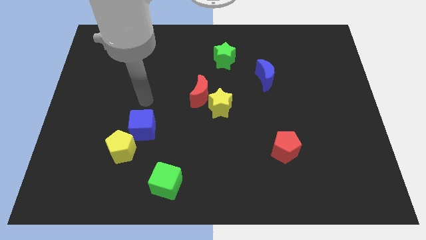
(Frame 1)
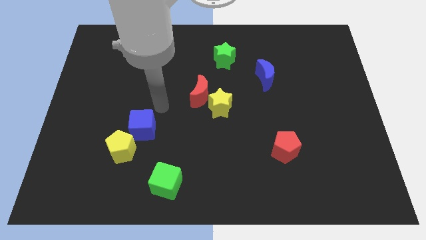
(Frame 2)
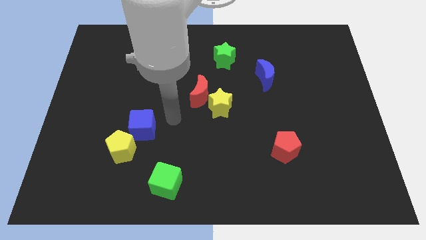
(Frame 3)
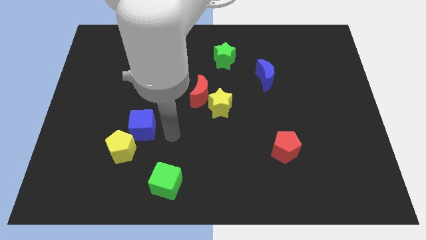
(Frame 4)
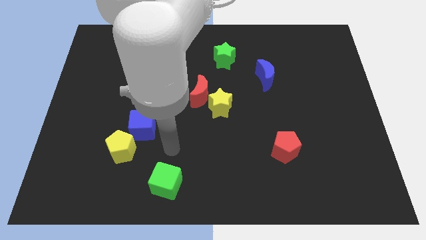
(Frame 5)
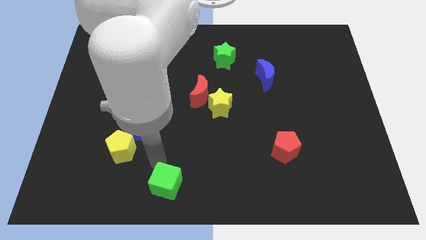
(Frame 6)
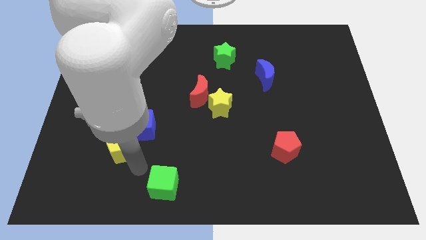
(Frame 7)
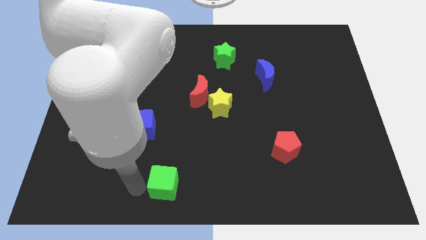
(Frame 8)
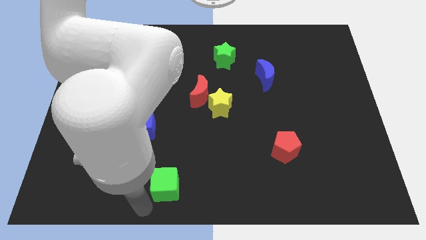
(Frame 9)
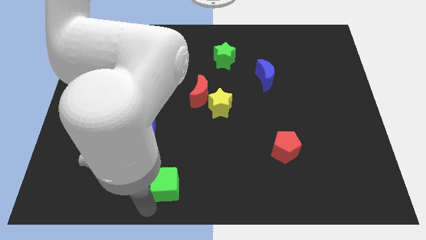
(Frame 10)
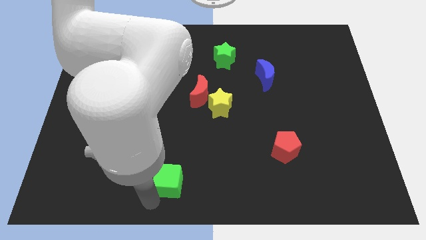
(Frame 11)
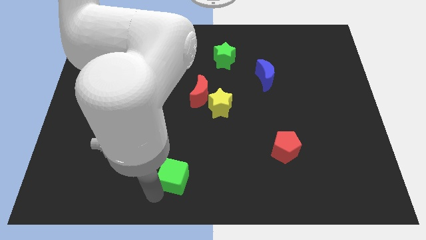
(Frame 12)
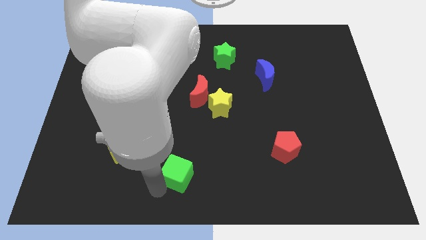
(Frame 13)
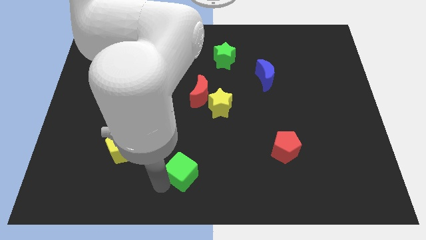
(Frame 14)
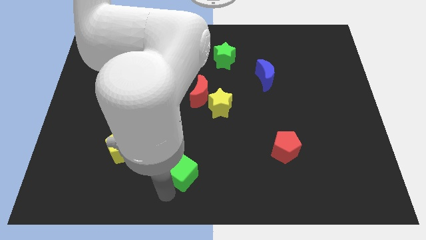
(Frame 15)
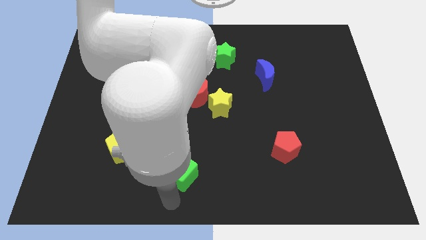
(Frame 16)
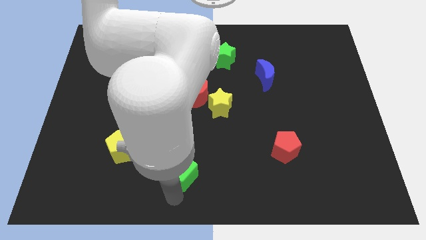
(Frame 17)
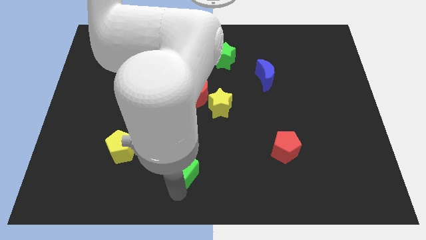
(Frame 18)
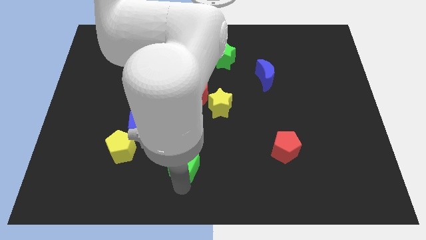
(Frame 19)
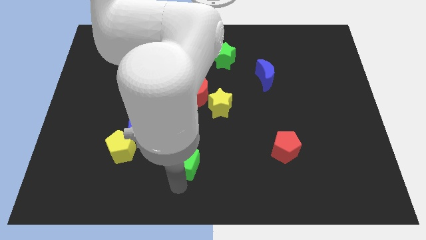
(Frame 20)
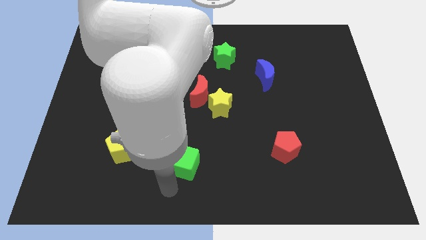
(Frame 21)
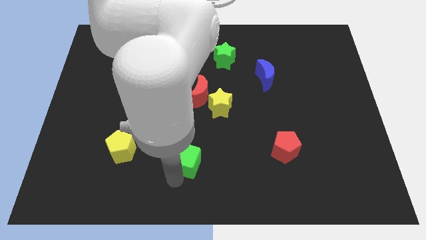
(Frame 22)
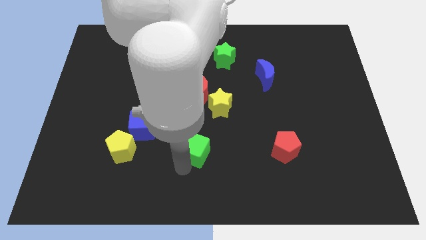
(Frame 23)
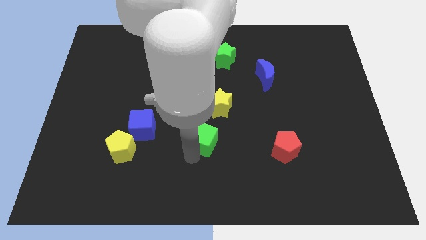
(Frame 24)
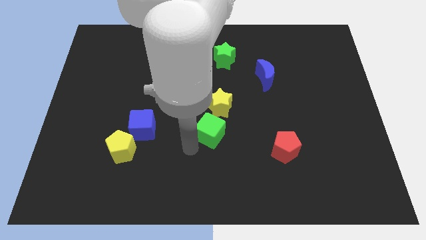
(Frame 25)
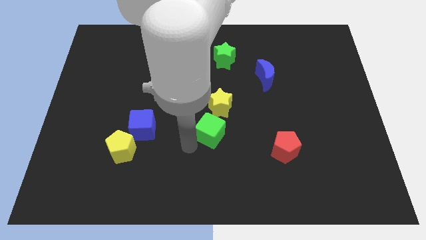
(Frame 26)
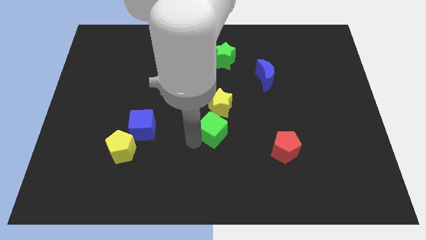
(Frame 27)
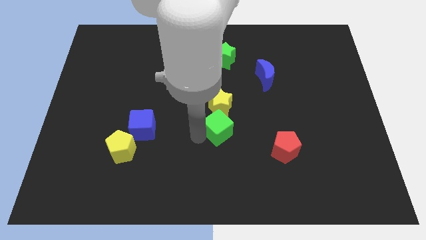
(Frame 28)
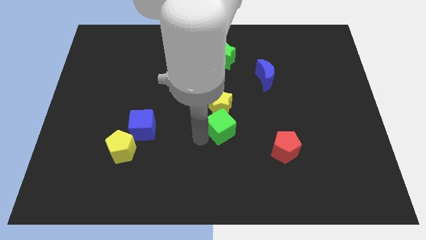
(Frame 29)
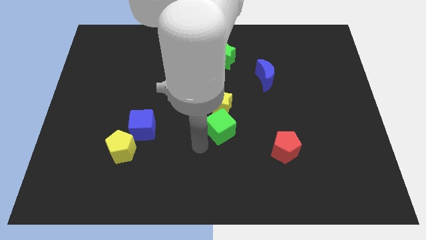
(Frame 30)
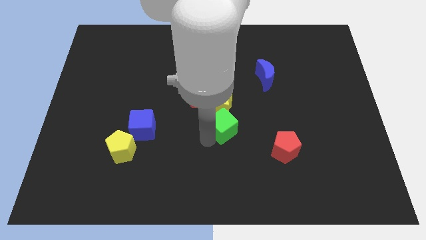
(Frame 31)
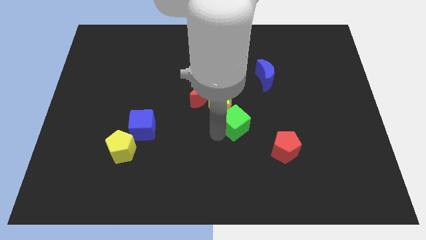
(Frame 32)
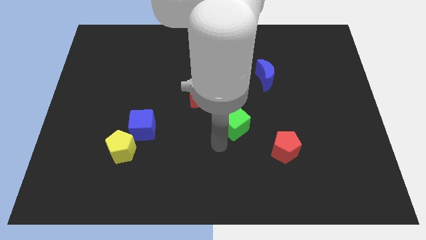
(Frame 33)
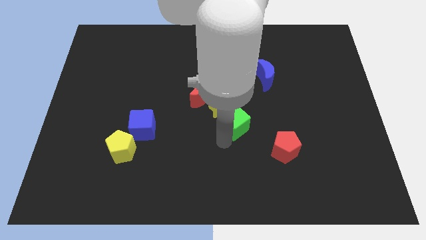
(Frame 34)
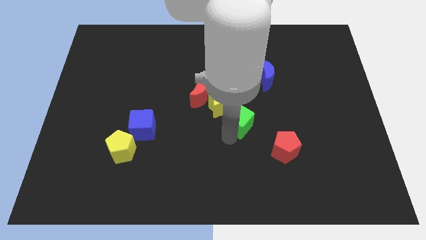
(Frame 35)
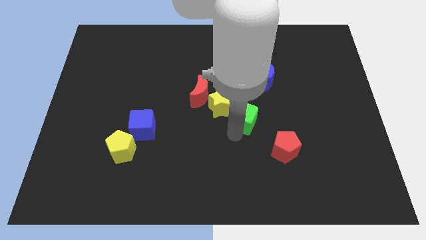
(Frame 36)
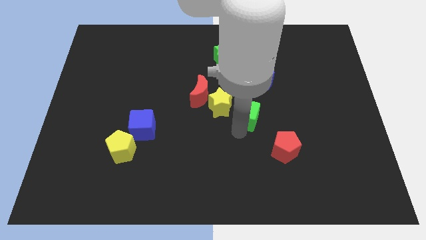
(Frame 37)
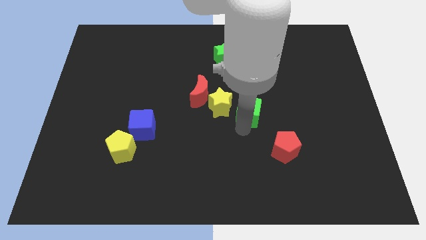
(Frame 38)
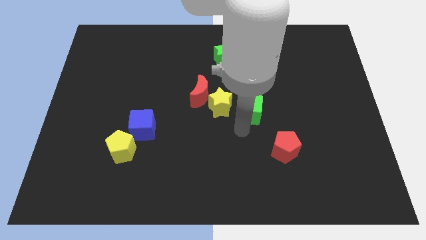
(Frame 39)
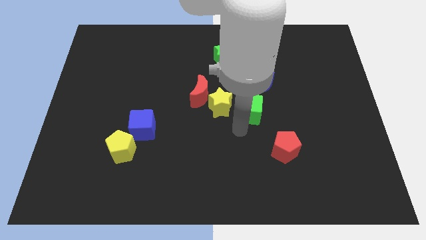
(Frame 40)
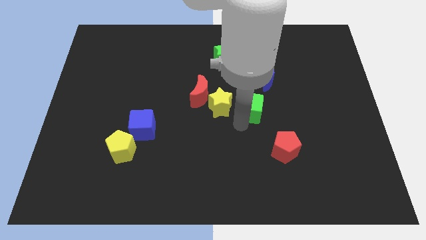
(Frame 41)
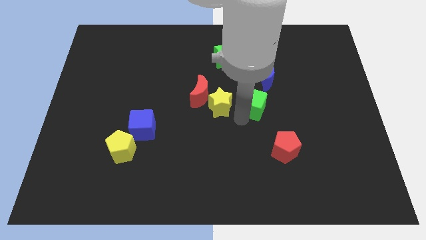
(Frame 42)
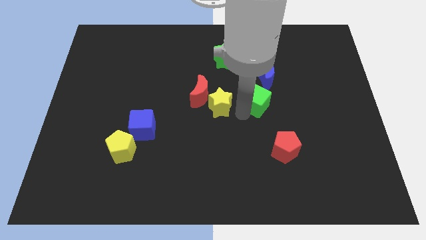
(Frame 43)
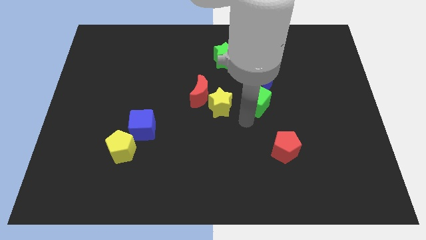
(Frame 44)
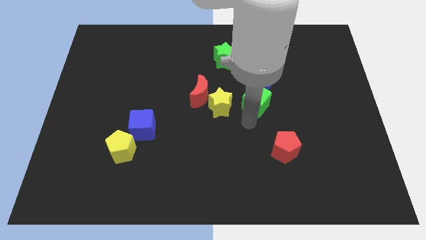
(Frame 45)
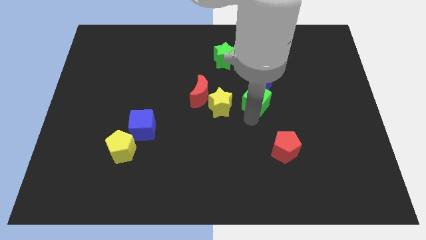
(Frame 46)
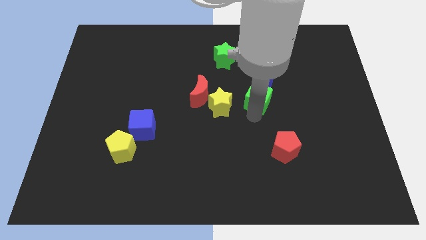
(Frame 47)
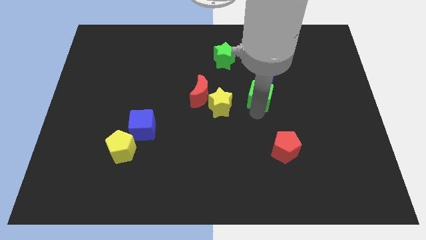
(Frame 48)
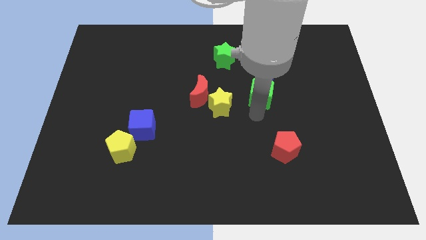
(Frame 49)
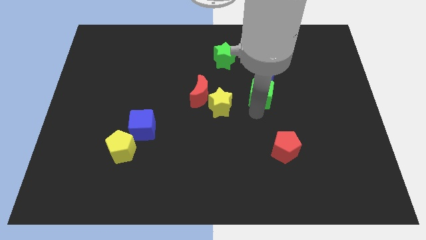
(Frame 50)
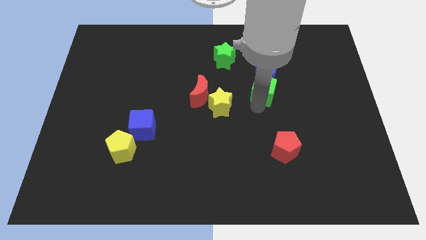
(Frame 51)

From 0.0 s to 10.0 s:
slide the green cube towards the blue moon

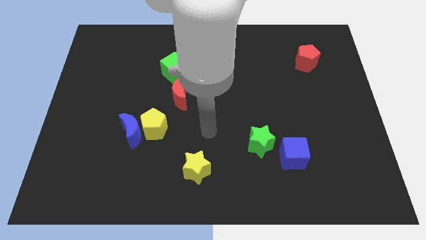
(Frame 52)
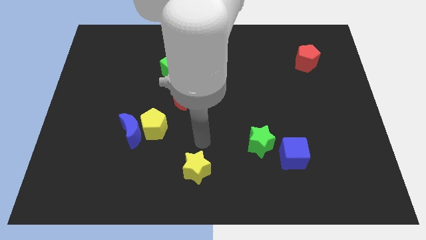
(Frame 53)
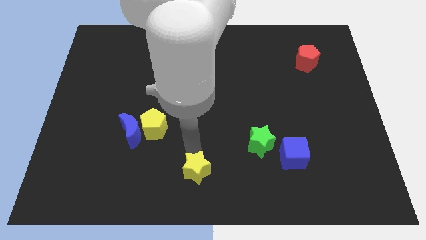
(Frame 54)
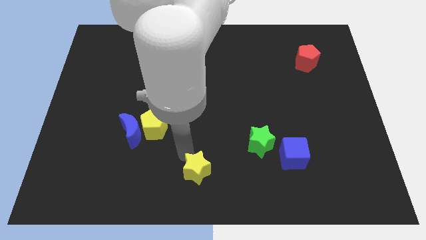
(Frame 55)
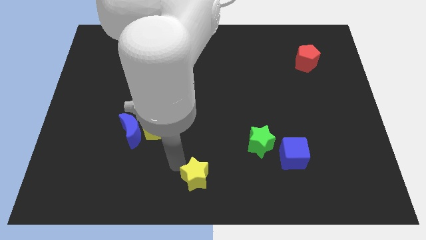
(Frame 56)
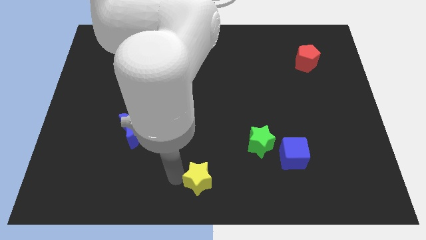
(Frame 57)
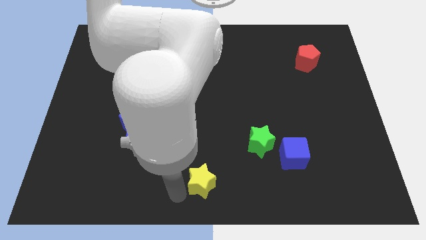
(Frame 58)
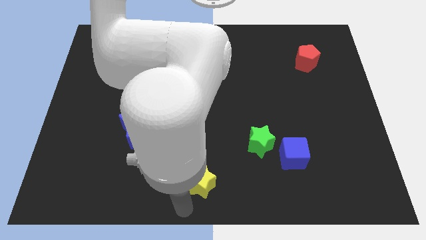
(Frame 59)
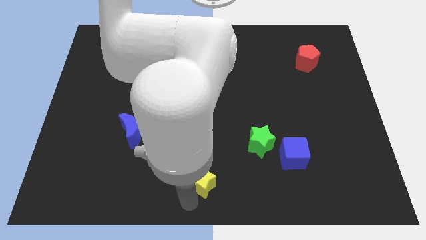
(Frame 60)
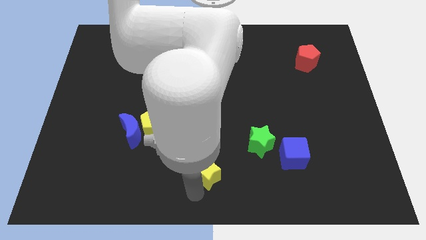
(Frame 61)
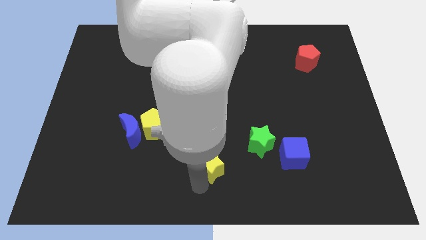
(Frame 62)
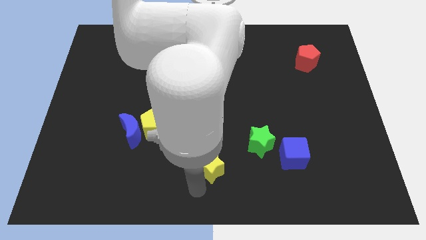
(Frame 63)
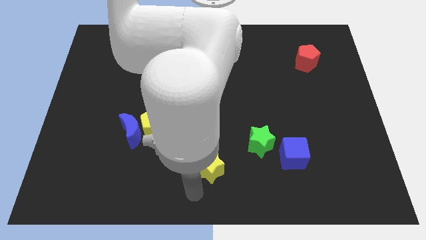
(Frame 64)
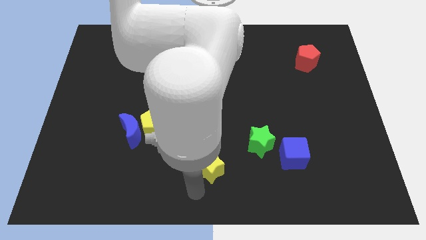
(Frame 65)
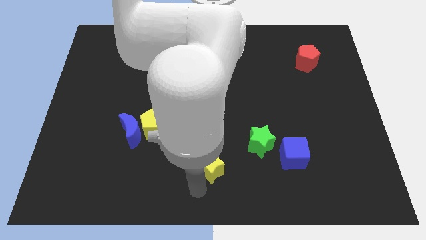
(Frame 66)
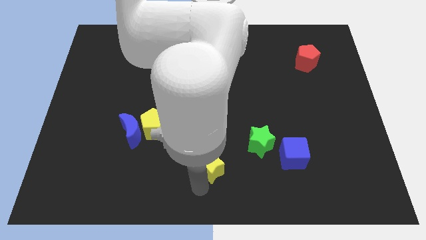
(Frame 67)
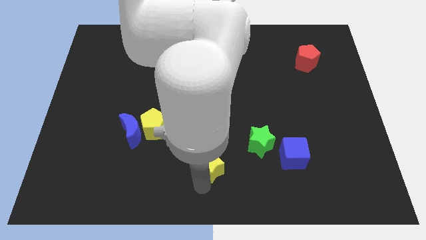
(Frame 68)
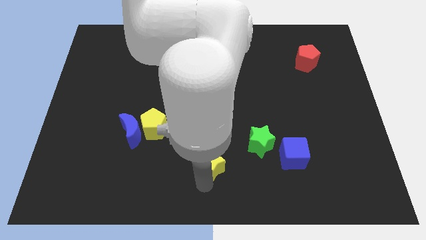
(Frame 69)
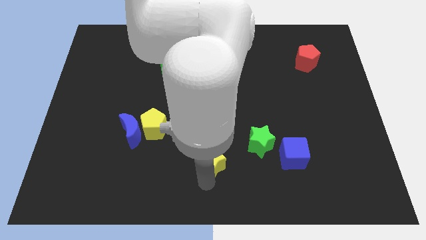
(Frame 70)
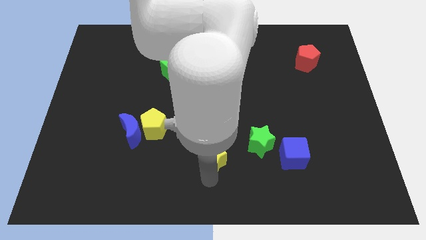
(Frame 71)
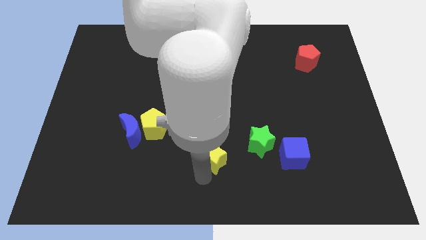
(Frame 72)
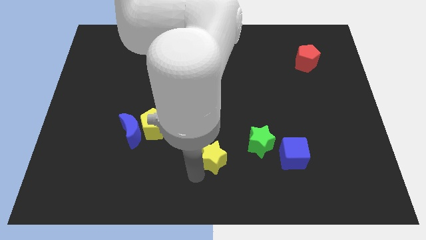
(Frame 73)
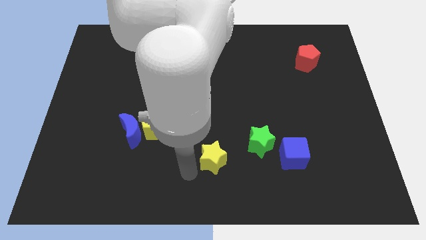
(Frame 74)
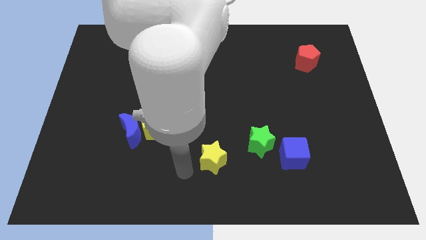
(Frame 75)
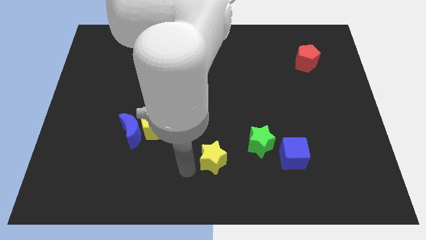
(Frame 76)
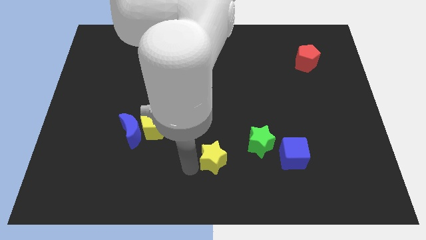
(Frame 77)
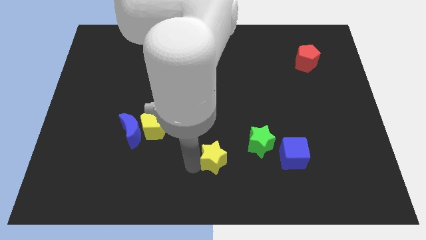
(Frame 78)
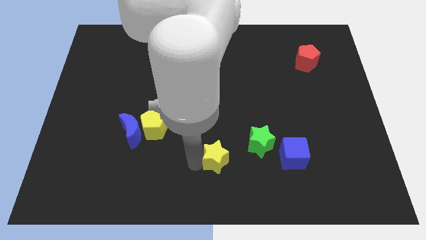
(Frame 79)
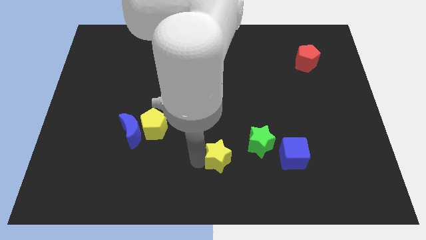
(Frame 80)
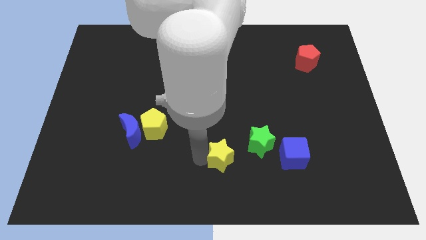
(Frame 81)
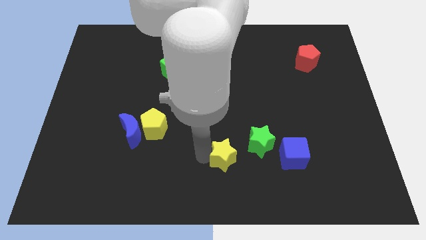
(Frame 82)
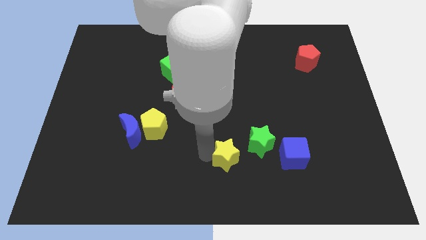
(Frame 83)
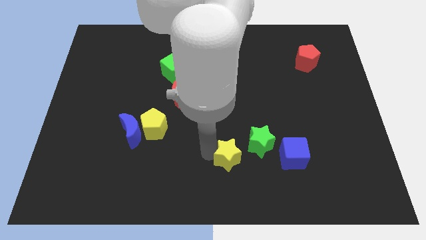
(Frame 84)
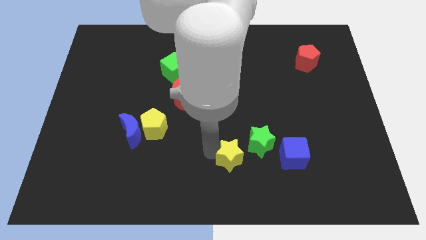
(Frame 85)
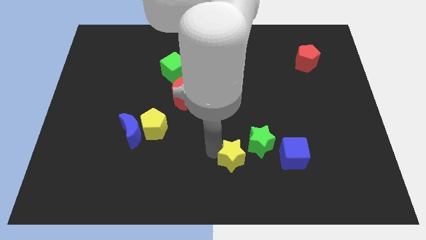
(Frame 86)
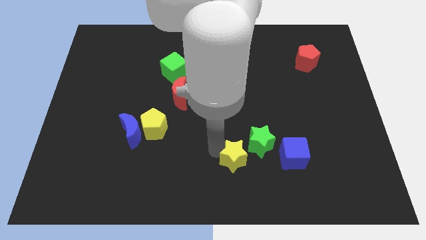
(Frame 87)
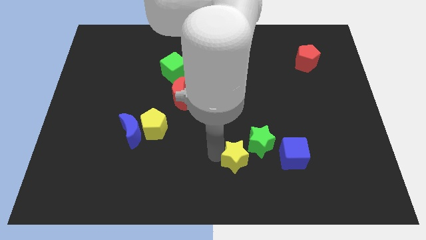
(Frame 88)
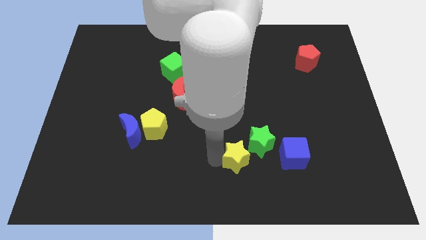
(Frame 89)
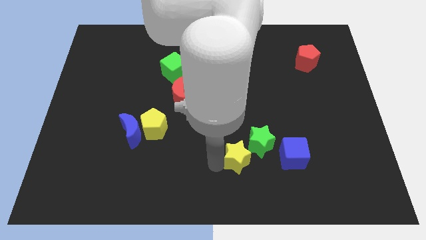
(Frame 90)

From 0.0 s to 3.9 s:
move the yellow star next to the green star
